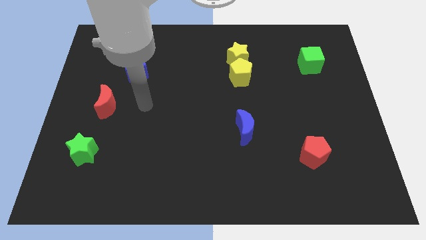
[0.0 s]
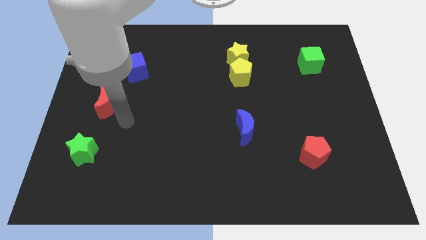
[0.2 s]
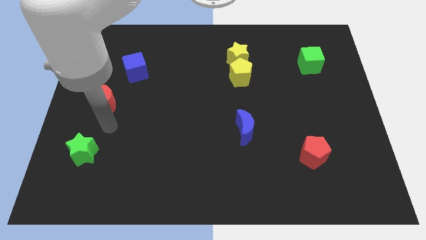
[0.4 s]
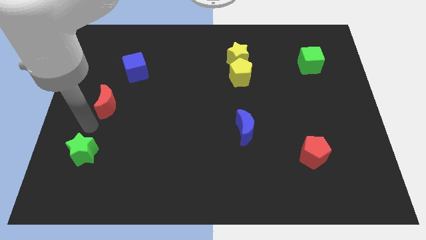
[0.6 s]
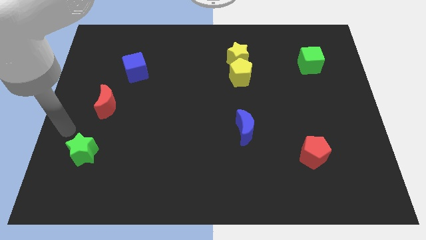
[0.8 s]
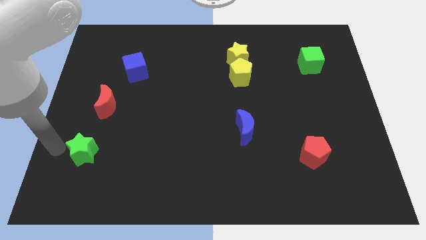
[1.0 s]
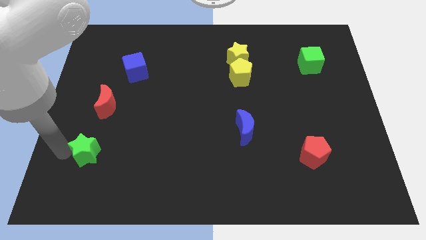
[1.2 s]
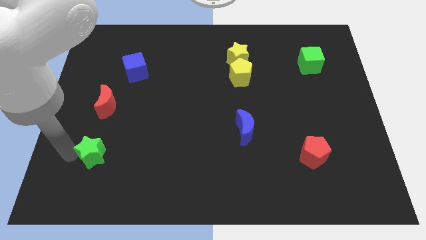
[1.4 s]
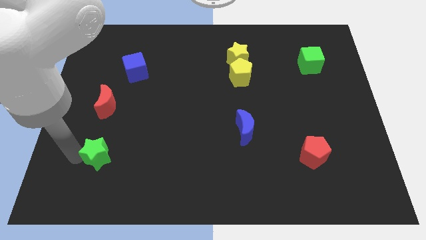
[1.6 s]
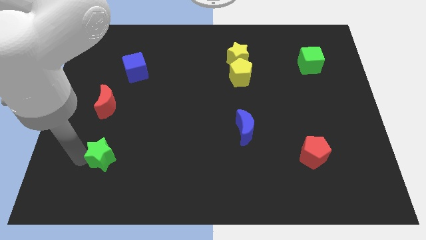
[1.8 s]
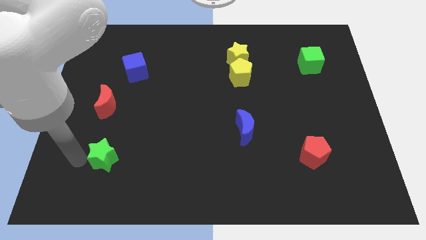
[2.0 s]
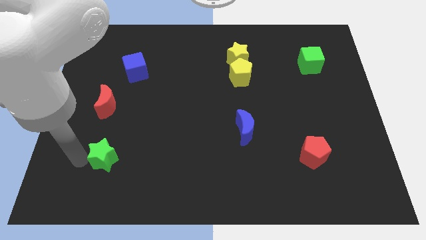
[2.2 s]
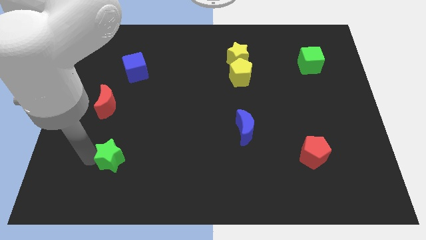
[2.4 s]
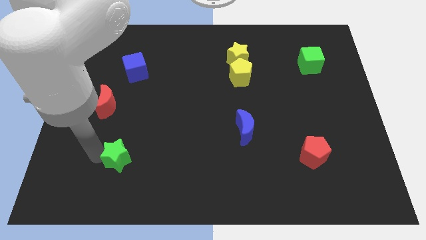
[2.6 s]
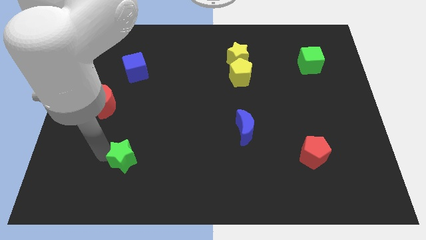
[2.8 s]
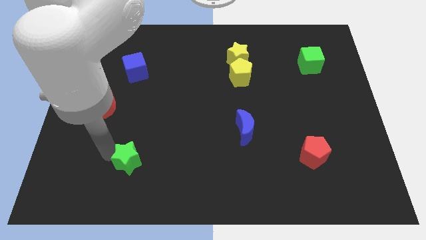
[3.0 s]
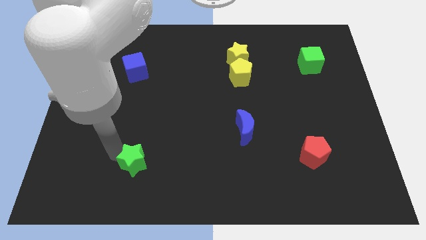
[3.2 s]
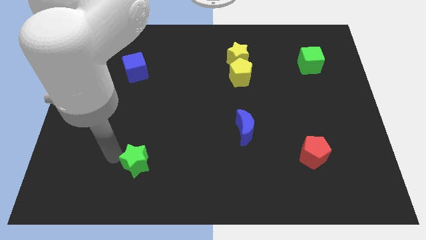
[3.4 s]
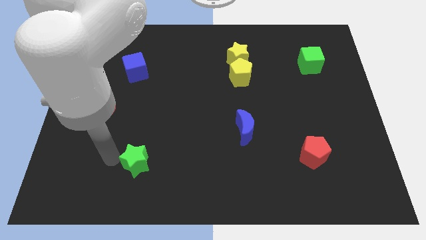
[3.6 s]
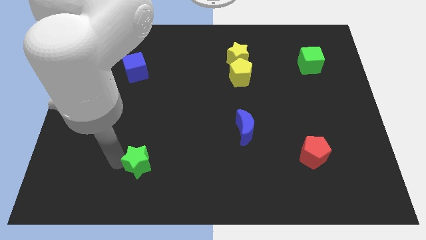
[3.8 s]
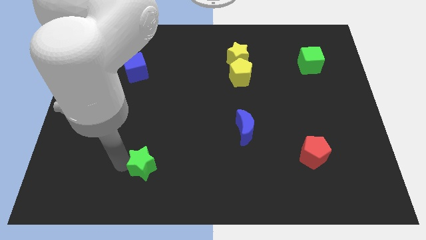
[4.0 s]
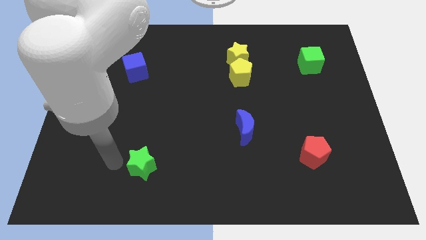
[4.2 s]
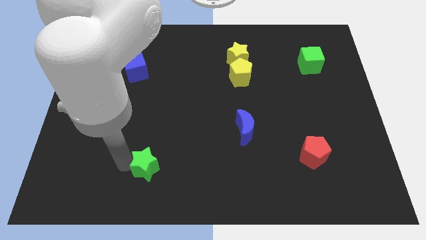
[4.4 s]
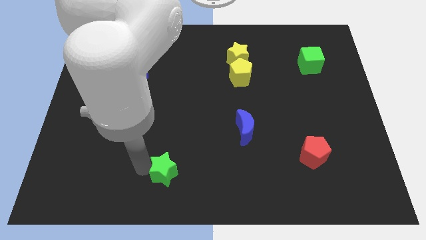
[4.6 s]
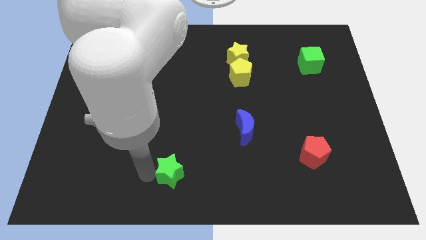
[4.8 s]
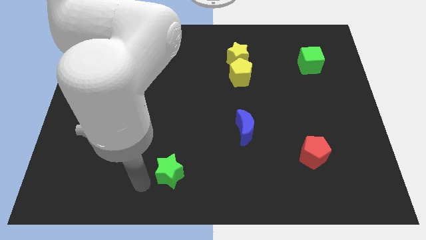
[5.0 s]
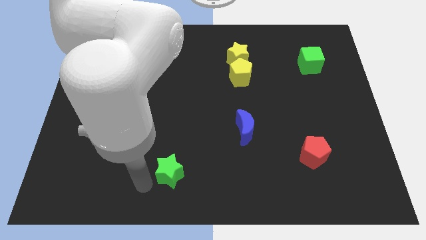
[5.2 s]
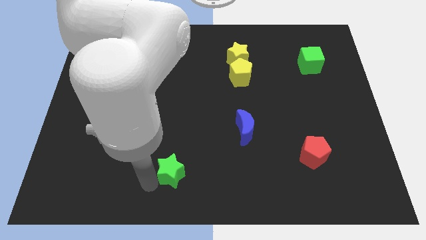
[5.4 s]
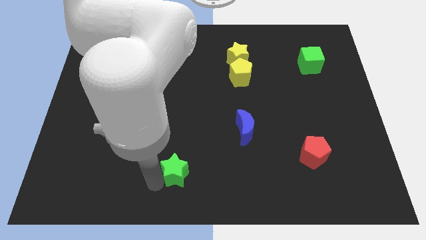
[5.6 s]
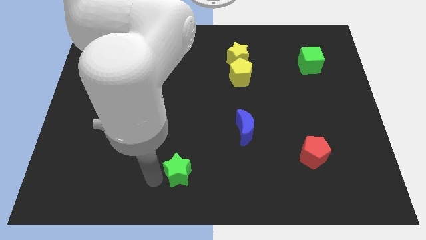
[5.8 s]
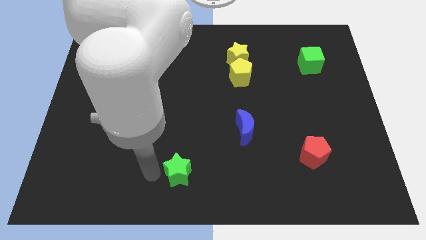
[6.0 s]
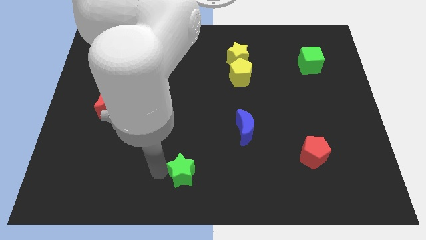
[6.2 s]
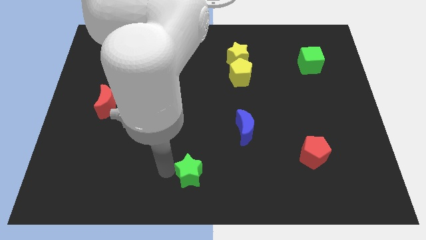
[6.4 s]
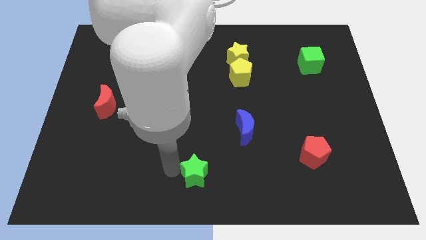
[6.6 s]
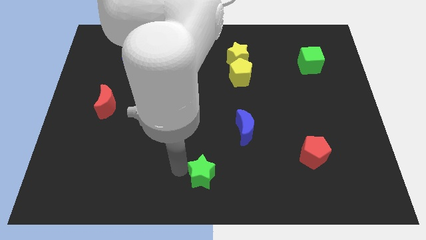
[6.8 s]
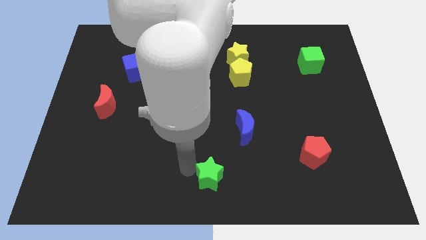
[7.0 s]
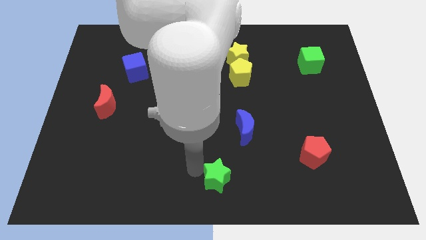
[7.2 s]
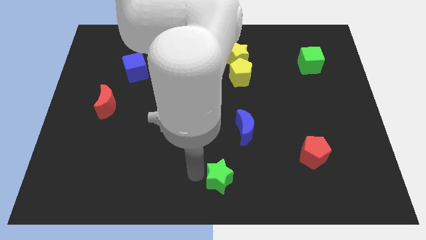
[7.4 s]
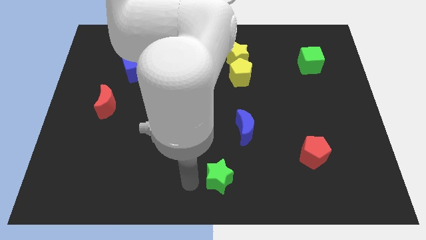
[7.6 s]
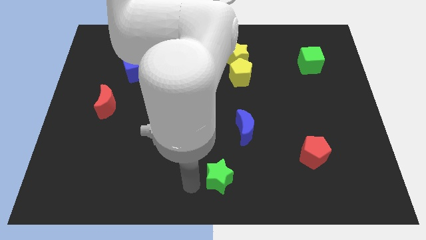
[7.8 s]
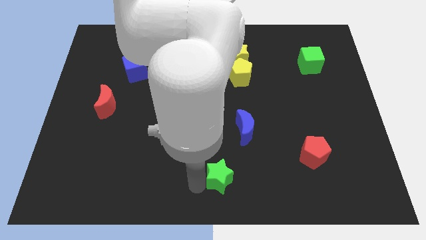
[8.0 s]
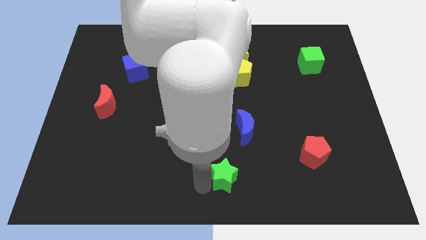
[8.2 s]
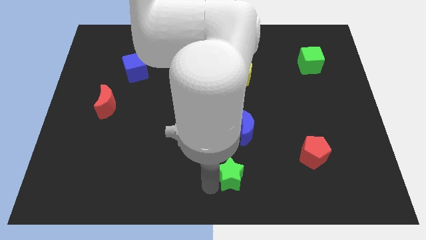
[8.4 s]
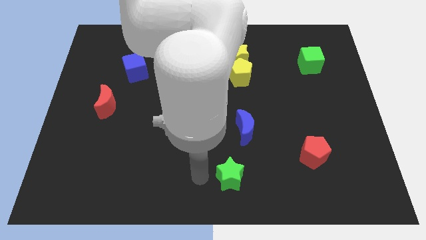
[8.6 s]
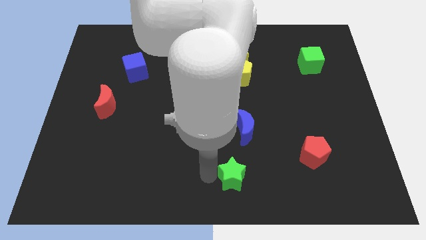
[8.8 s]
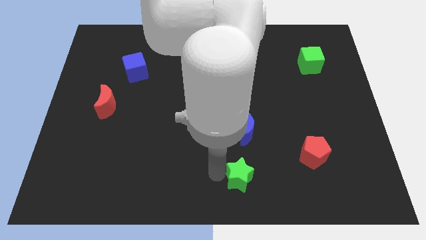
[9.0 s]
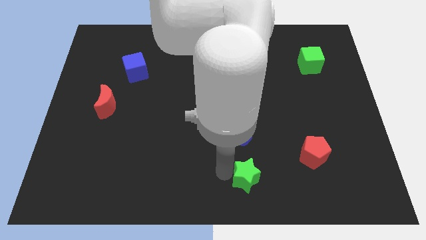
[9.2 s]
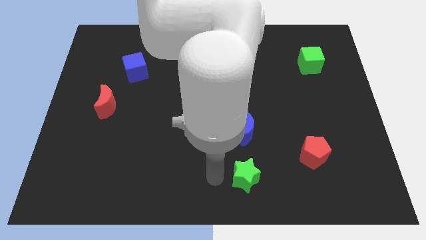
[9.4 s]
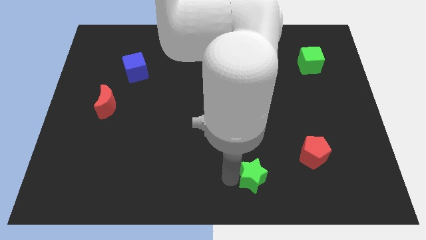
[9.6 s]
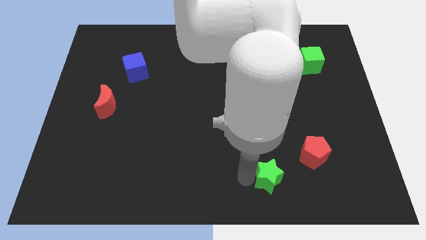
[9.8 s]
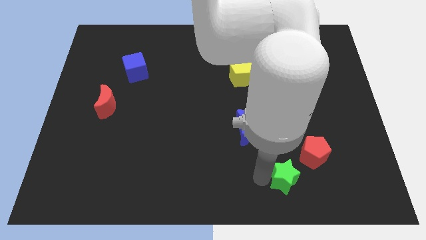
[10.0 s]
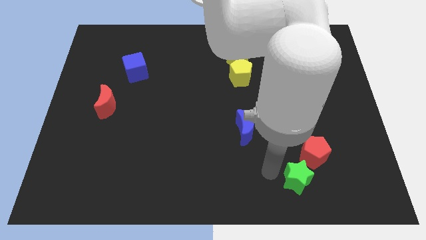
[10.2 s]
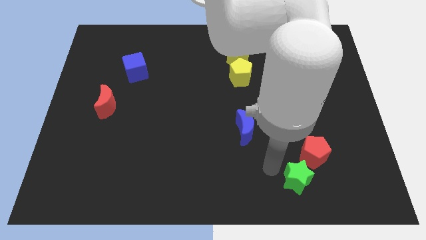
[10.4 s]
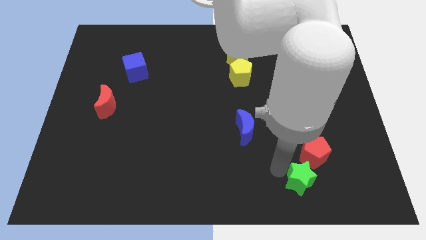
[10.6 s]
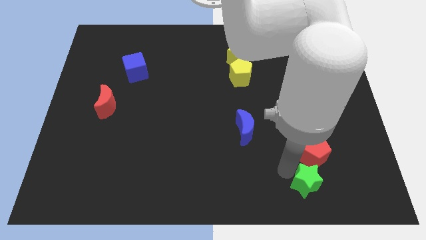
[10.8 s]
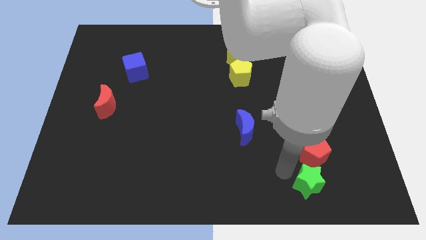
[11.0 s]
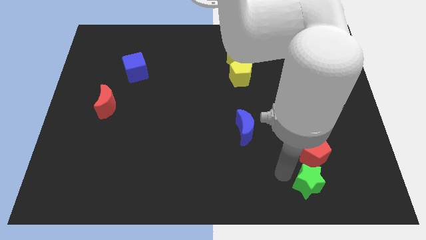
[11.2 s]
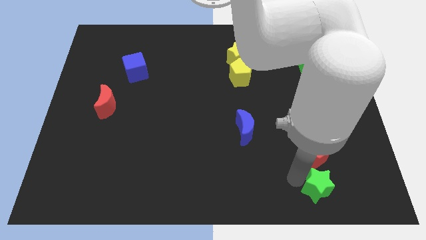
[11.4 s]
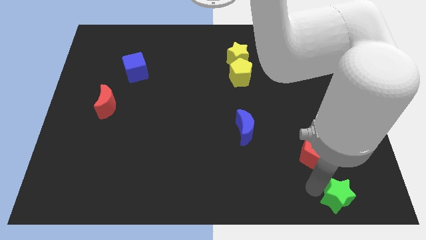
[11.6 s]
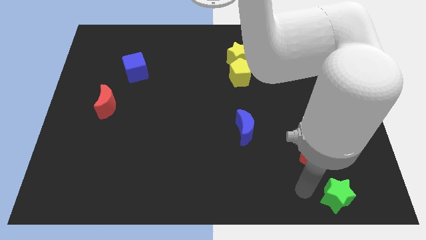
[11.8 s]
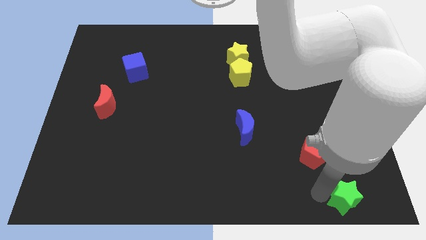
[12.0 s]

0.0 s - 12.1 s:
move the green star to the bottom right
